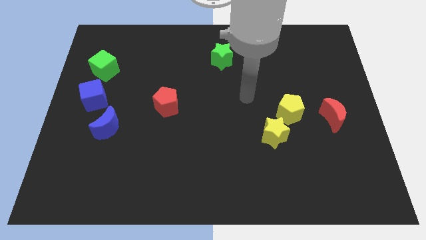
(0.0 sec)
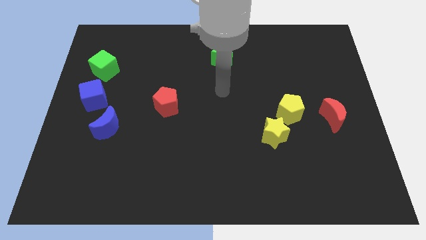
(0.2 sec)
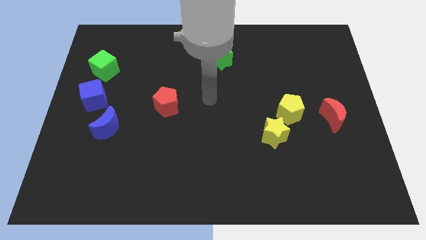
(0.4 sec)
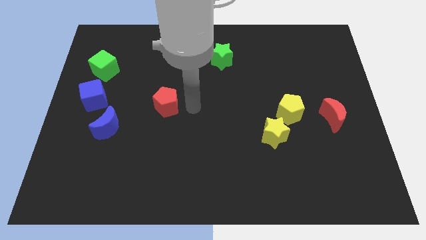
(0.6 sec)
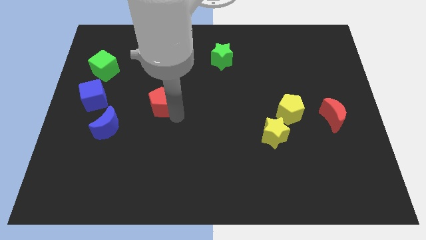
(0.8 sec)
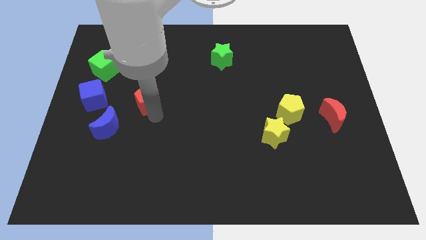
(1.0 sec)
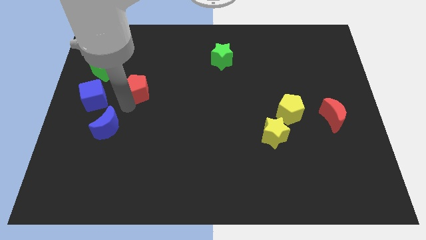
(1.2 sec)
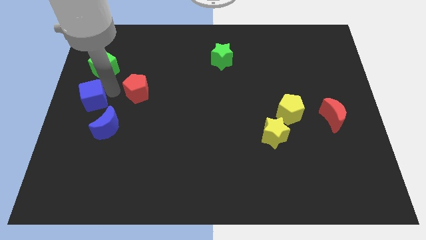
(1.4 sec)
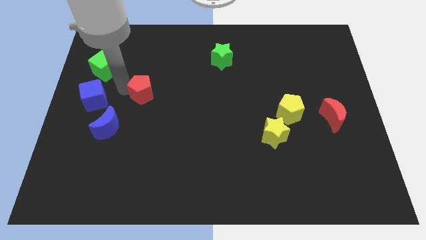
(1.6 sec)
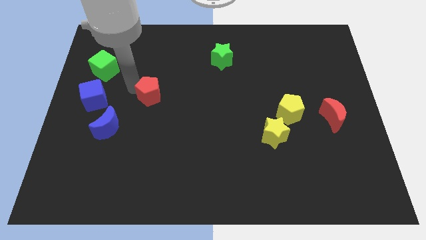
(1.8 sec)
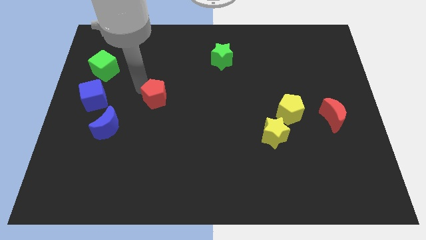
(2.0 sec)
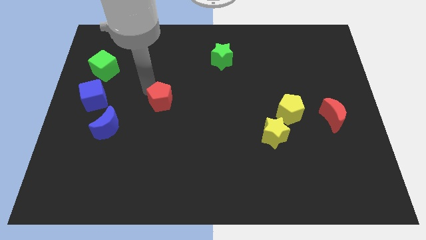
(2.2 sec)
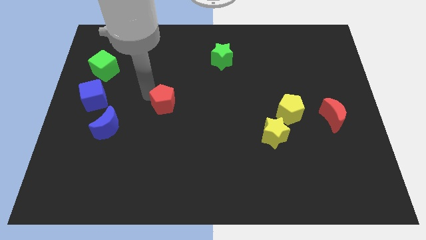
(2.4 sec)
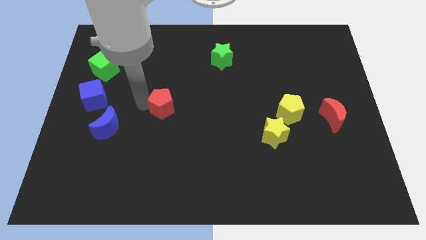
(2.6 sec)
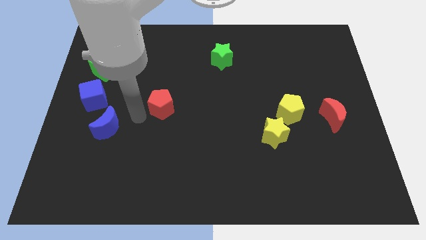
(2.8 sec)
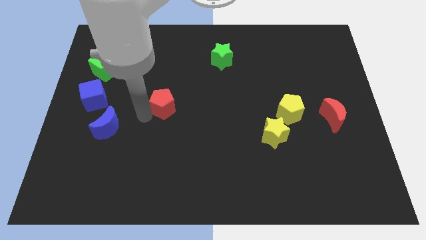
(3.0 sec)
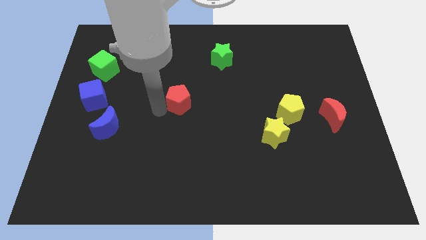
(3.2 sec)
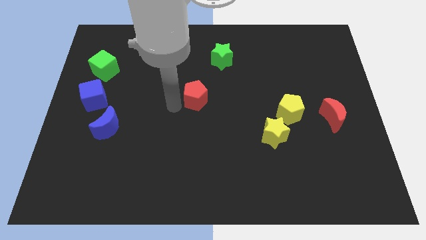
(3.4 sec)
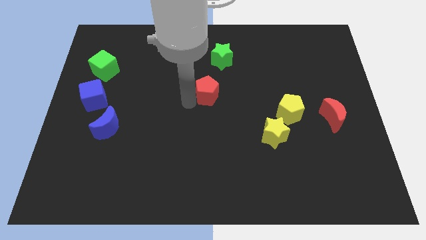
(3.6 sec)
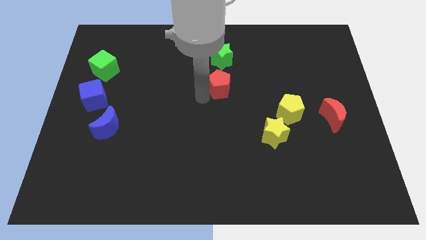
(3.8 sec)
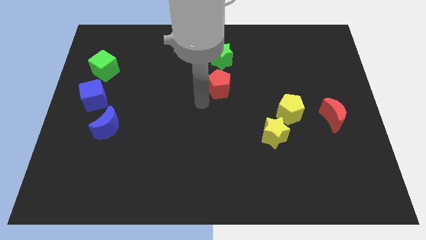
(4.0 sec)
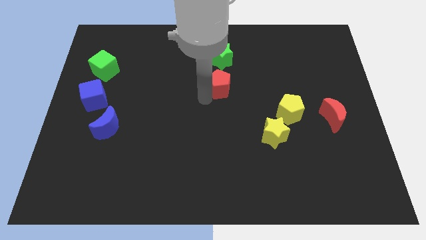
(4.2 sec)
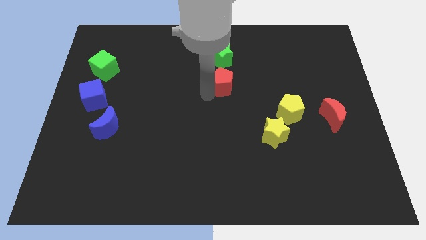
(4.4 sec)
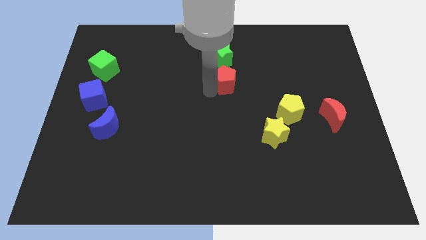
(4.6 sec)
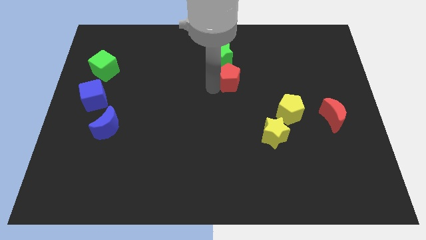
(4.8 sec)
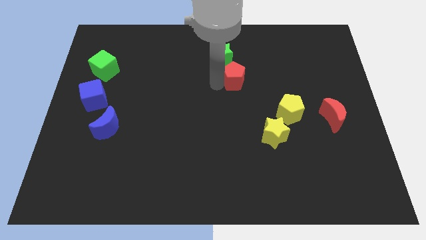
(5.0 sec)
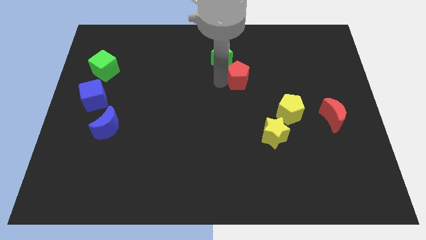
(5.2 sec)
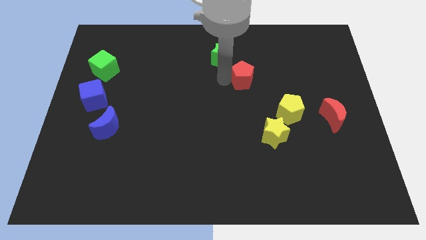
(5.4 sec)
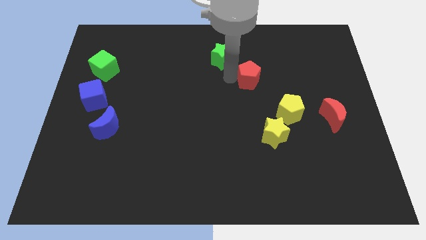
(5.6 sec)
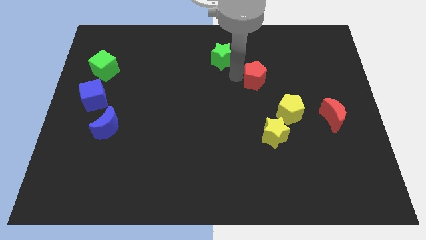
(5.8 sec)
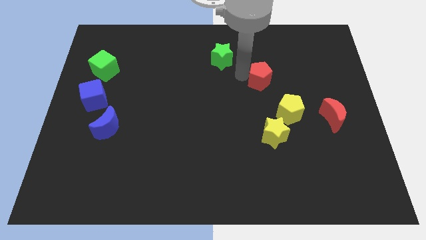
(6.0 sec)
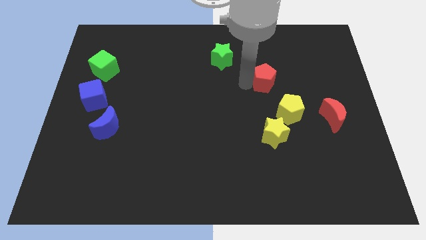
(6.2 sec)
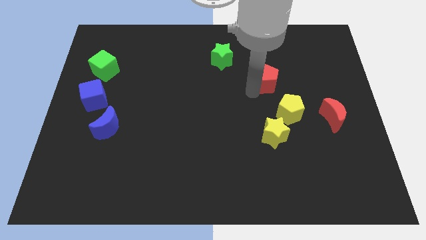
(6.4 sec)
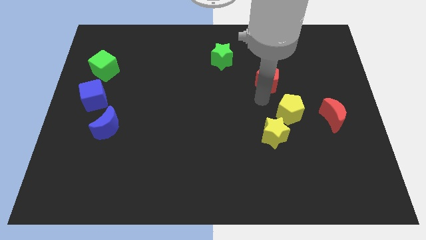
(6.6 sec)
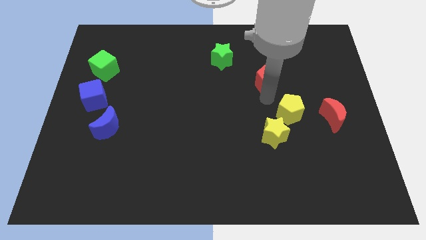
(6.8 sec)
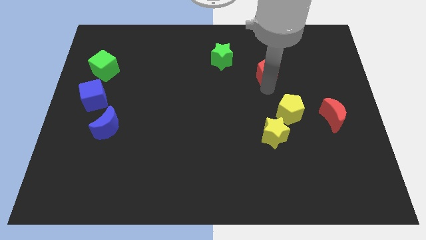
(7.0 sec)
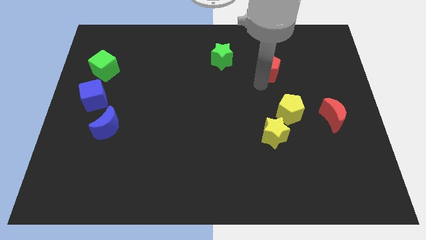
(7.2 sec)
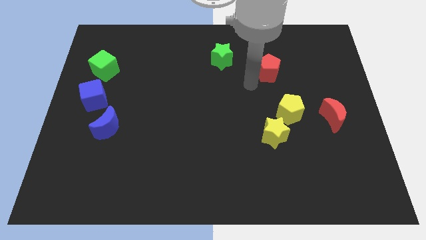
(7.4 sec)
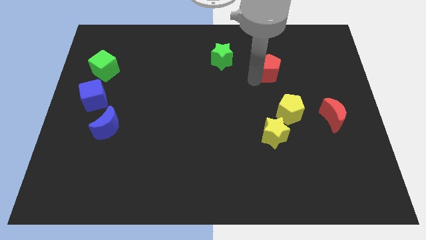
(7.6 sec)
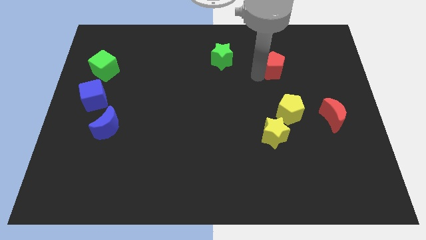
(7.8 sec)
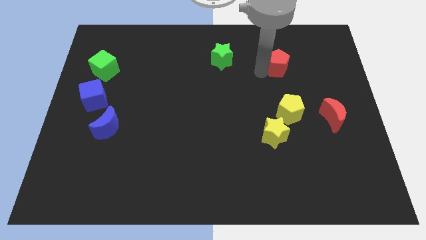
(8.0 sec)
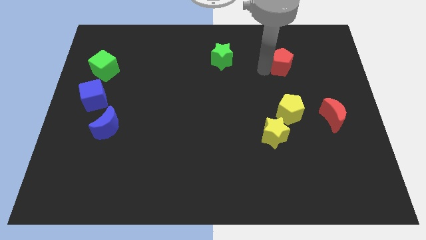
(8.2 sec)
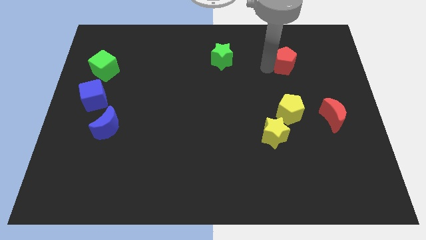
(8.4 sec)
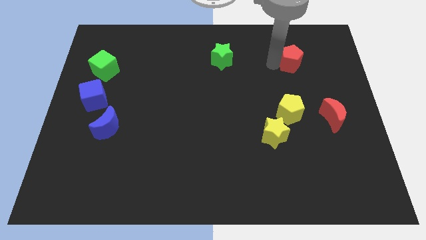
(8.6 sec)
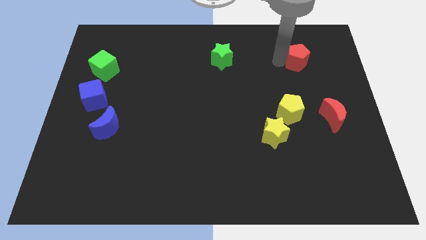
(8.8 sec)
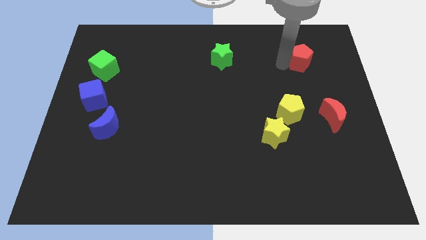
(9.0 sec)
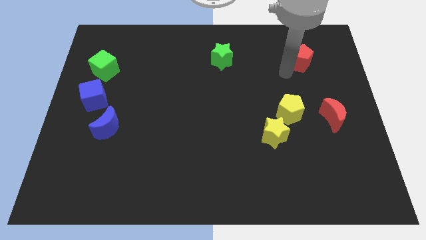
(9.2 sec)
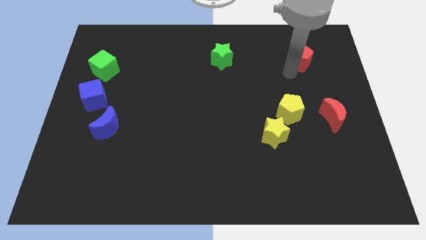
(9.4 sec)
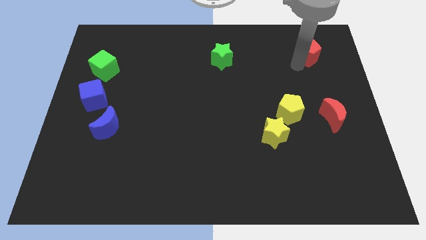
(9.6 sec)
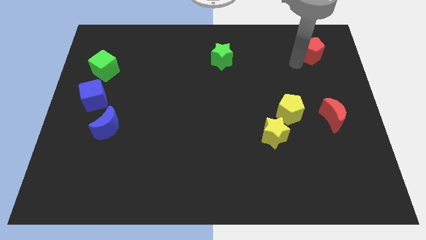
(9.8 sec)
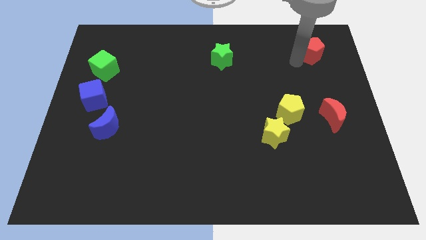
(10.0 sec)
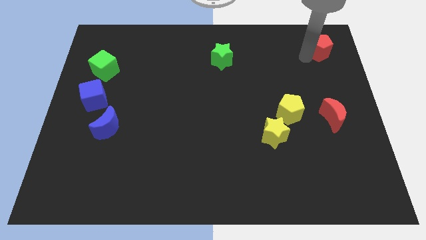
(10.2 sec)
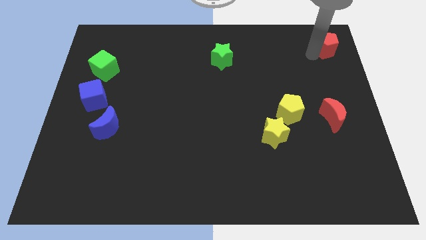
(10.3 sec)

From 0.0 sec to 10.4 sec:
move the red pentagon to the upper right corner

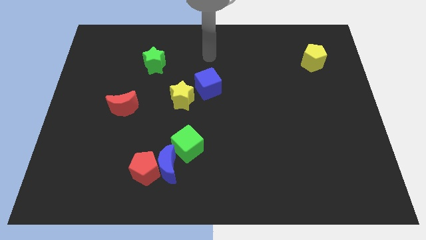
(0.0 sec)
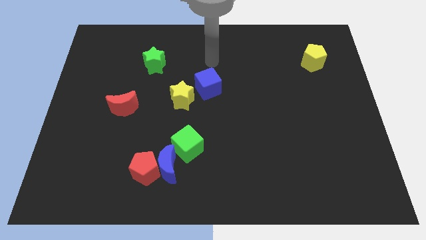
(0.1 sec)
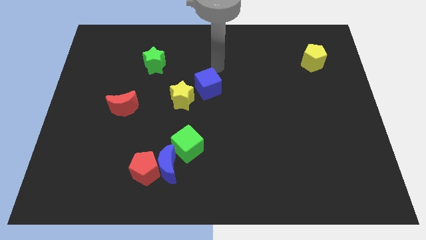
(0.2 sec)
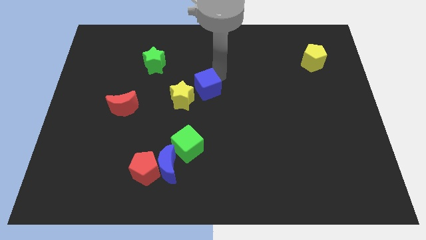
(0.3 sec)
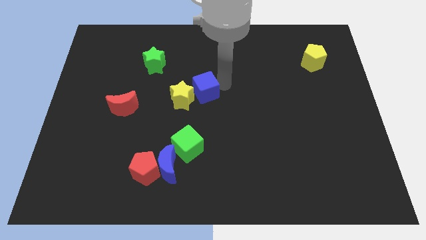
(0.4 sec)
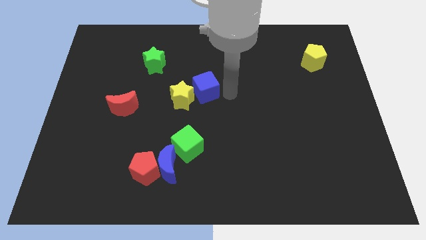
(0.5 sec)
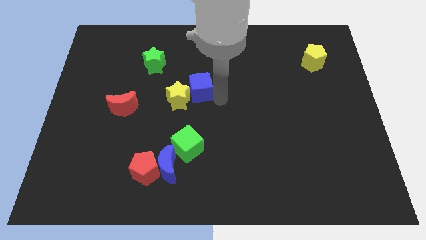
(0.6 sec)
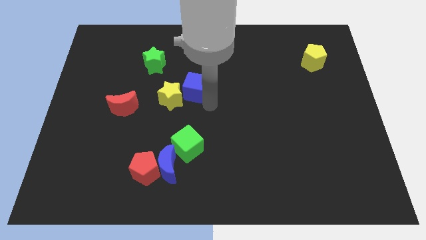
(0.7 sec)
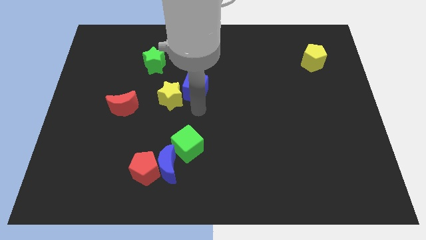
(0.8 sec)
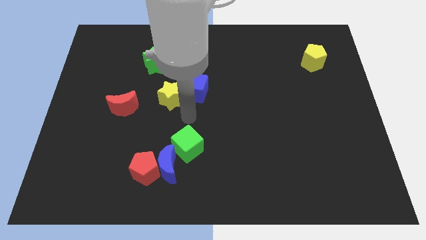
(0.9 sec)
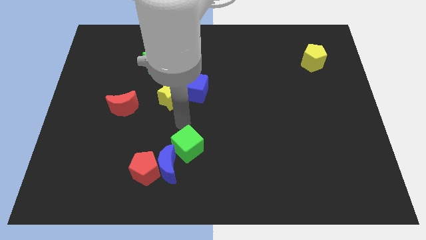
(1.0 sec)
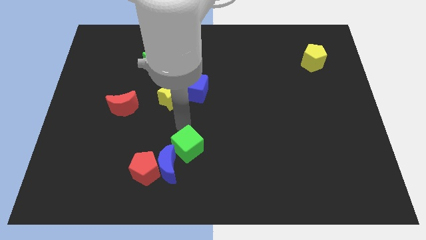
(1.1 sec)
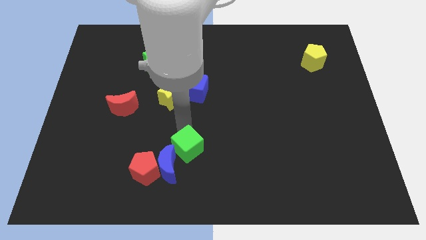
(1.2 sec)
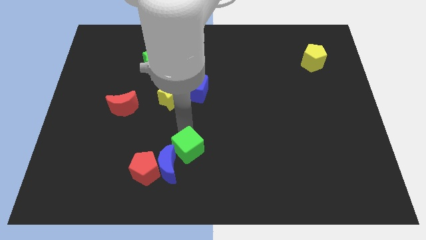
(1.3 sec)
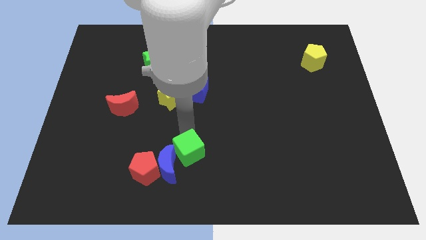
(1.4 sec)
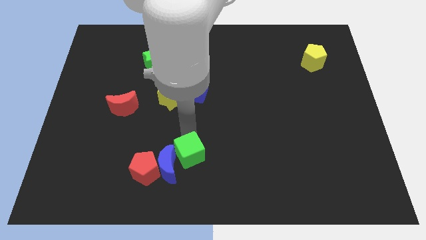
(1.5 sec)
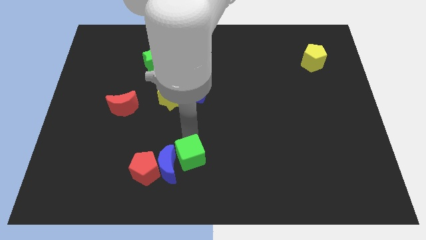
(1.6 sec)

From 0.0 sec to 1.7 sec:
push the green cube to the bottom side
